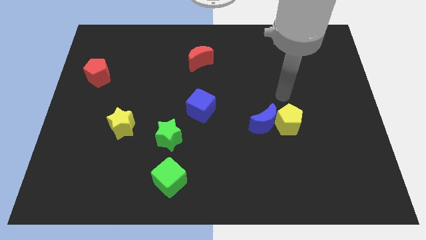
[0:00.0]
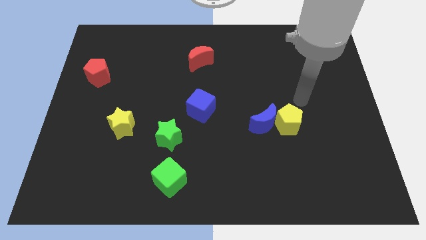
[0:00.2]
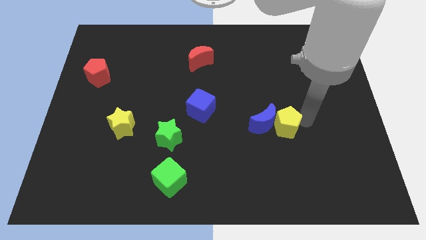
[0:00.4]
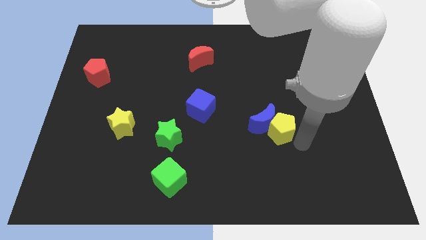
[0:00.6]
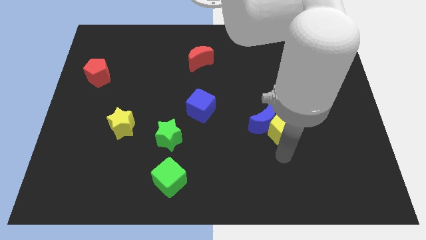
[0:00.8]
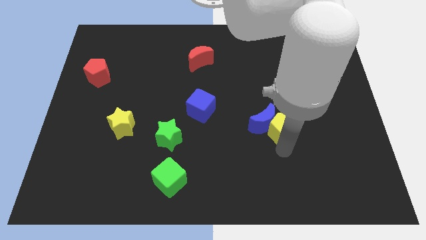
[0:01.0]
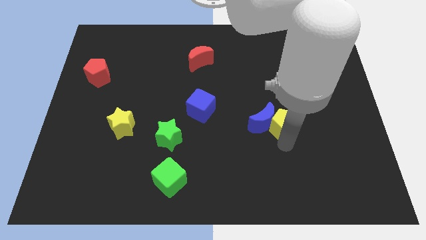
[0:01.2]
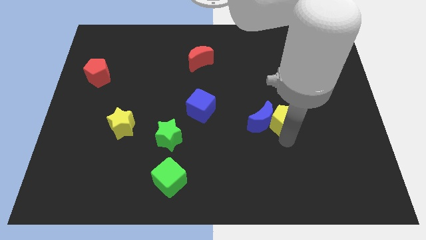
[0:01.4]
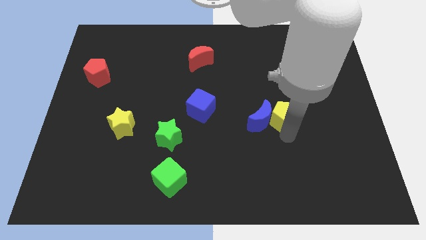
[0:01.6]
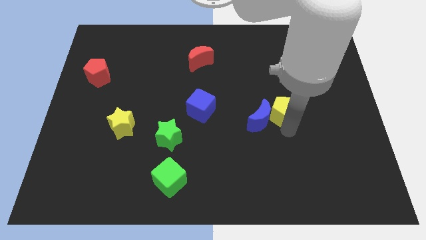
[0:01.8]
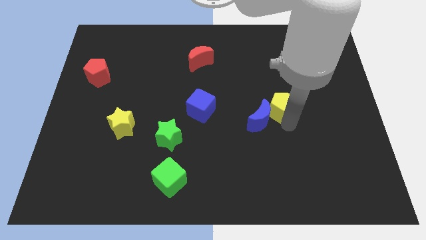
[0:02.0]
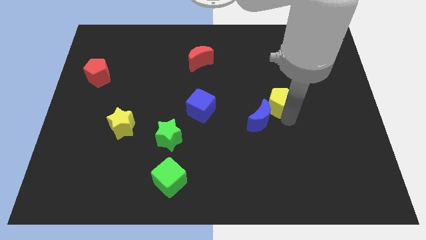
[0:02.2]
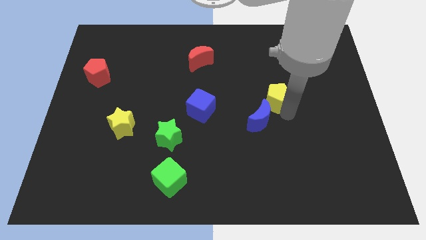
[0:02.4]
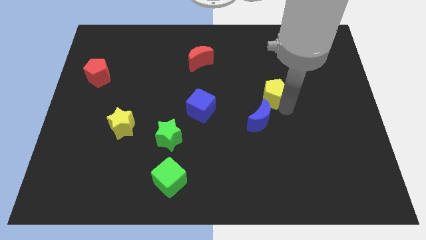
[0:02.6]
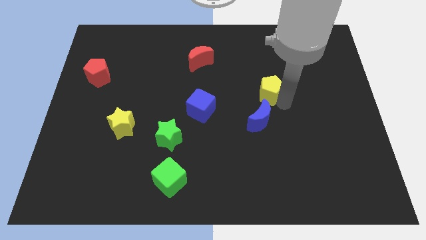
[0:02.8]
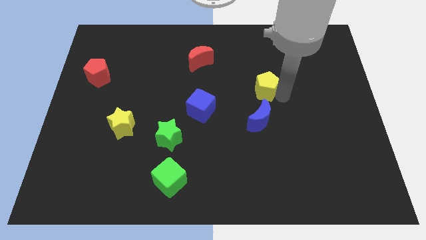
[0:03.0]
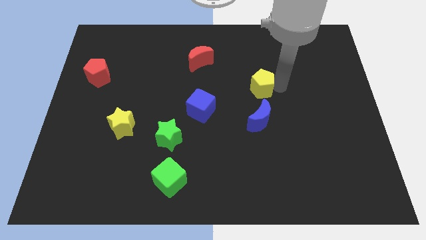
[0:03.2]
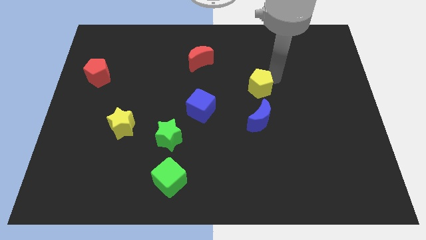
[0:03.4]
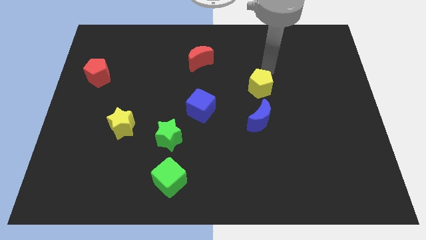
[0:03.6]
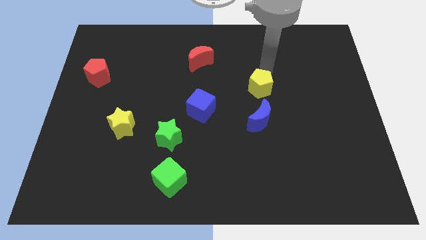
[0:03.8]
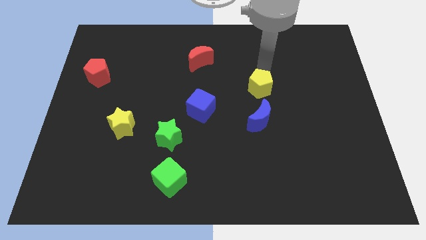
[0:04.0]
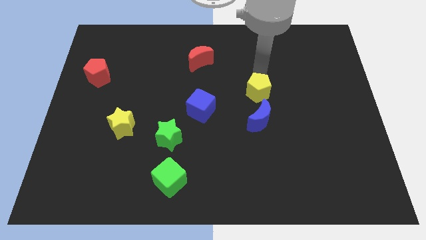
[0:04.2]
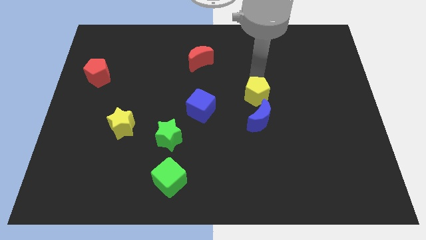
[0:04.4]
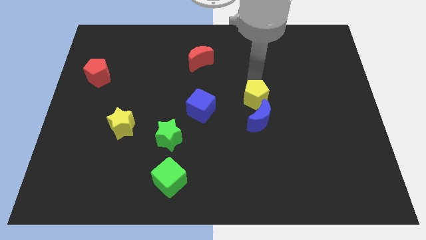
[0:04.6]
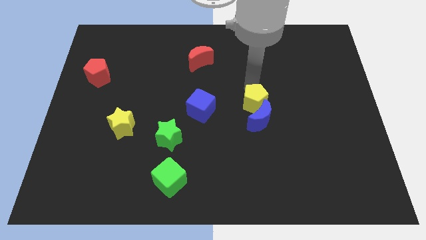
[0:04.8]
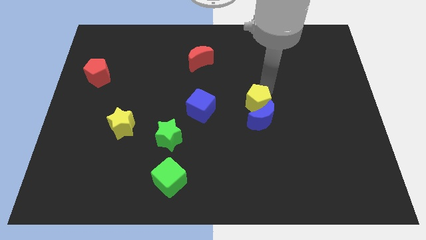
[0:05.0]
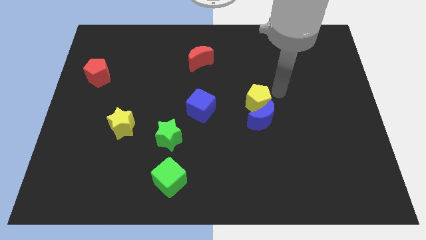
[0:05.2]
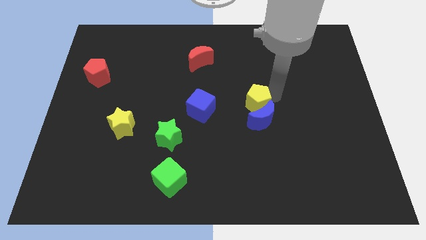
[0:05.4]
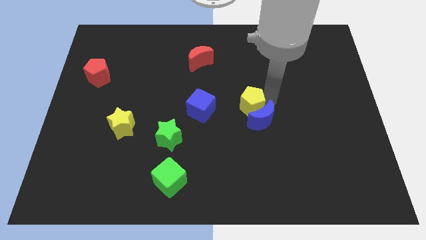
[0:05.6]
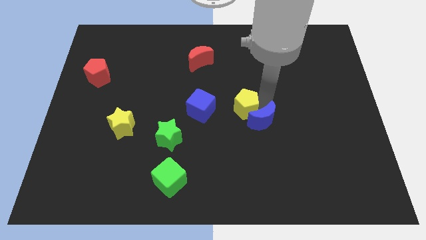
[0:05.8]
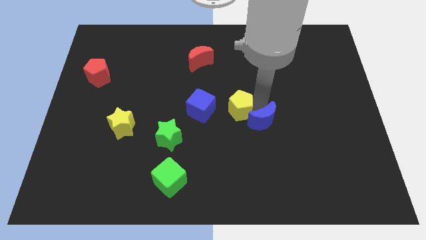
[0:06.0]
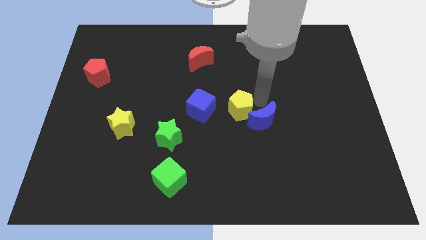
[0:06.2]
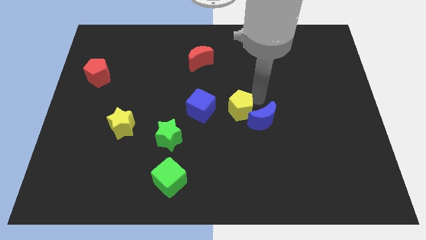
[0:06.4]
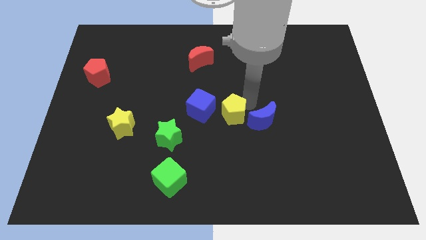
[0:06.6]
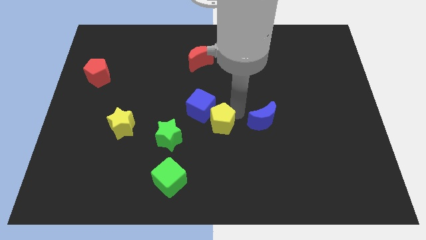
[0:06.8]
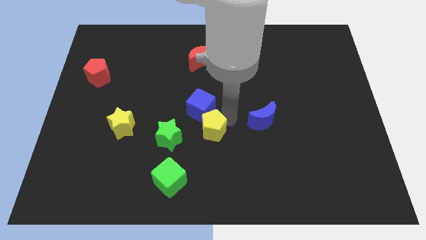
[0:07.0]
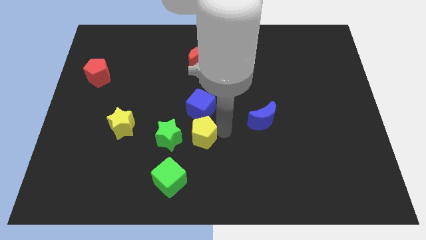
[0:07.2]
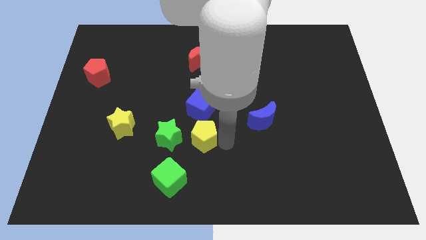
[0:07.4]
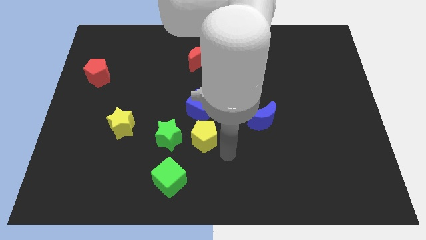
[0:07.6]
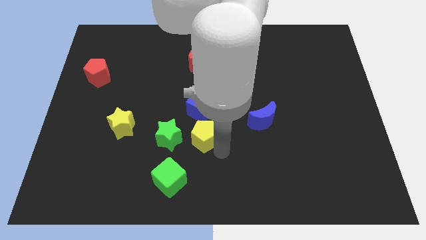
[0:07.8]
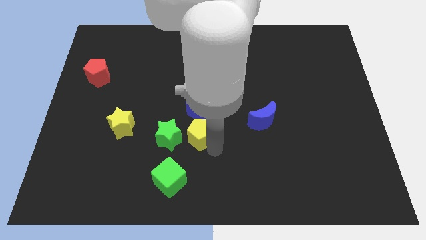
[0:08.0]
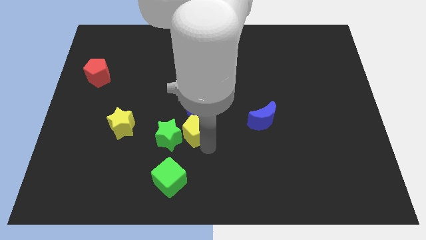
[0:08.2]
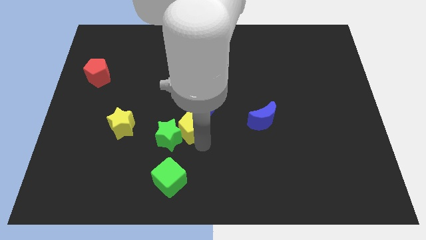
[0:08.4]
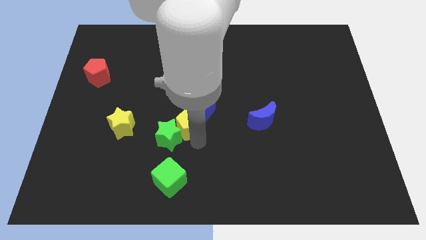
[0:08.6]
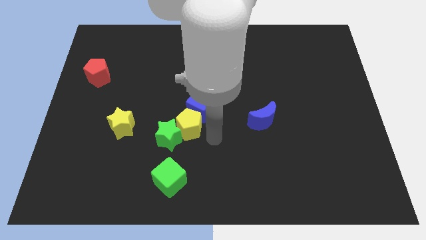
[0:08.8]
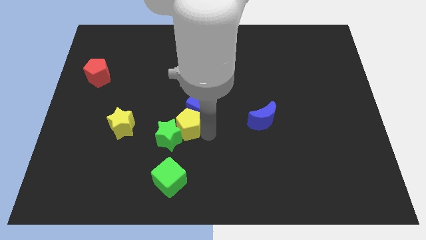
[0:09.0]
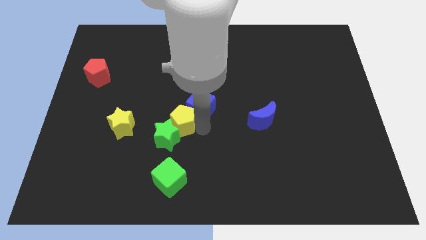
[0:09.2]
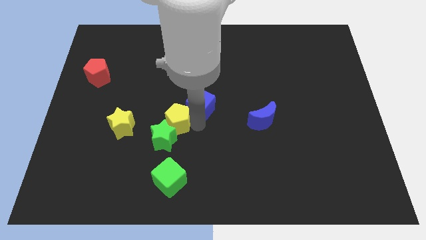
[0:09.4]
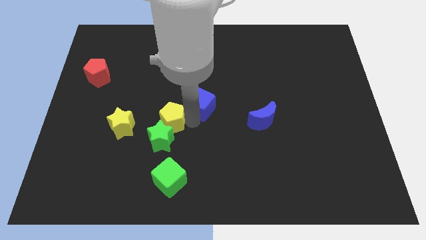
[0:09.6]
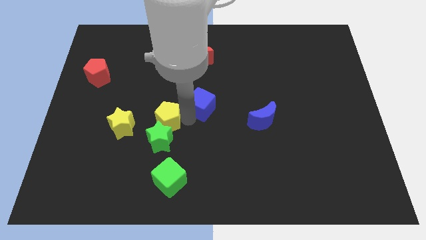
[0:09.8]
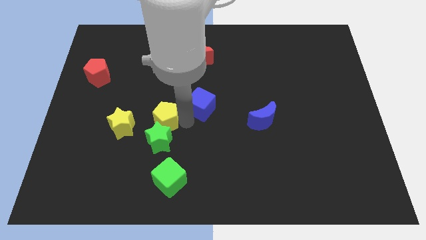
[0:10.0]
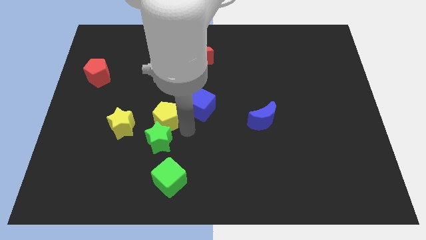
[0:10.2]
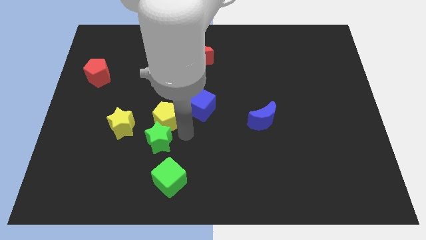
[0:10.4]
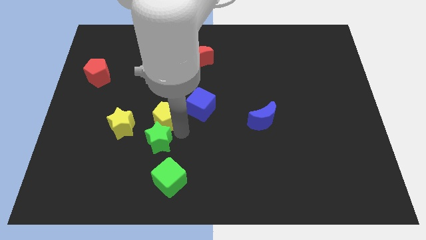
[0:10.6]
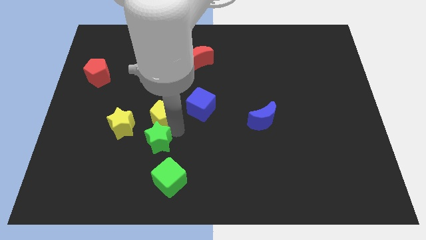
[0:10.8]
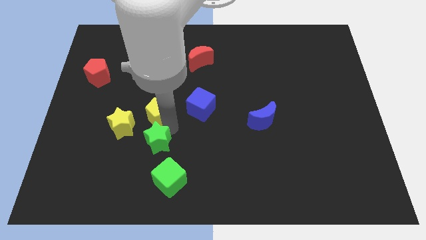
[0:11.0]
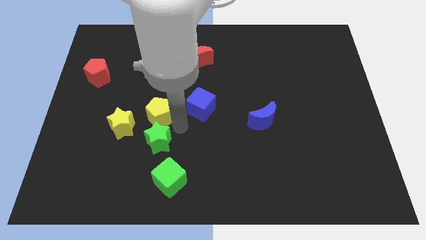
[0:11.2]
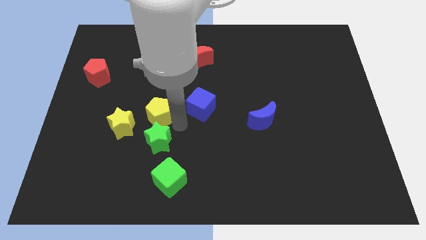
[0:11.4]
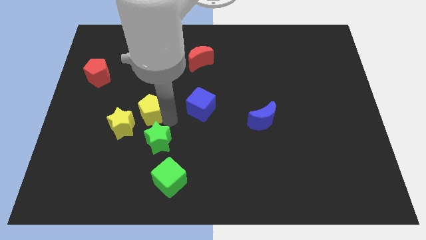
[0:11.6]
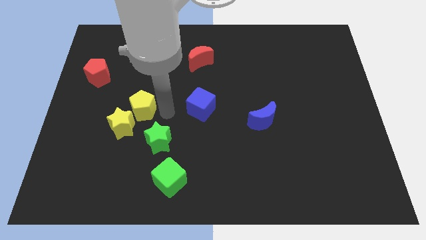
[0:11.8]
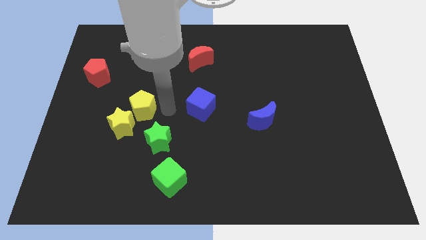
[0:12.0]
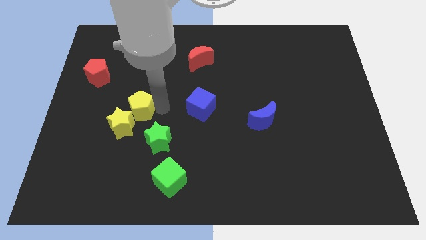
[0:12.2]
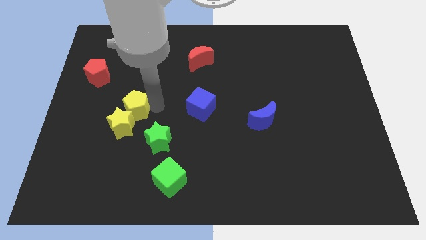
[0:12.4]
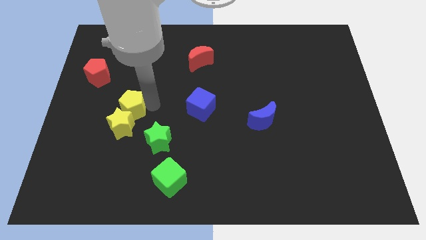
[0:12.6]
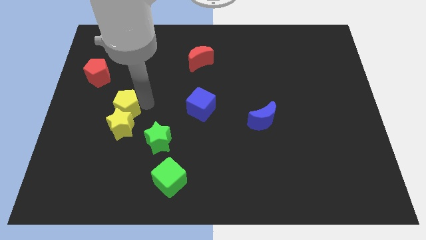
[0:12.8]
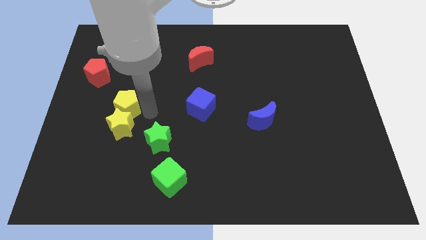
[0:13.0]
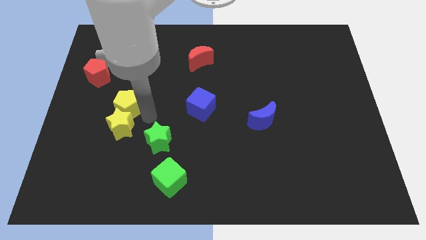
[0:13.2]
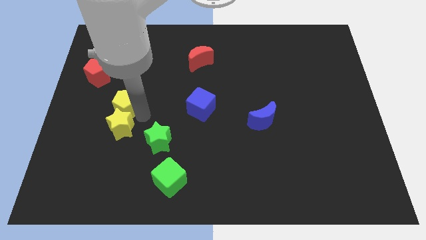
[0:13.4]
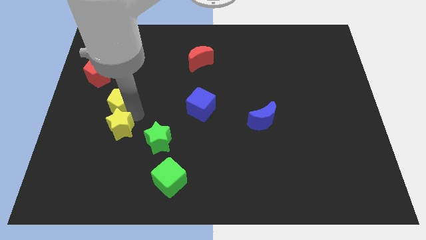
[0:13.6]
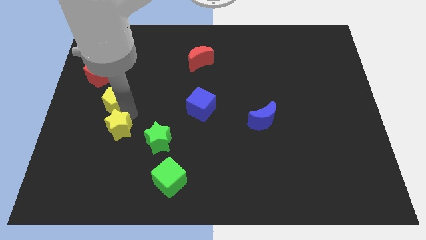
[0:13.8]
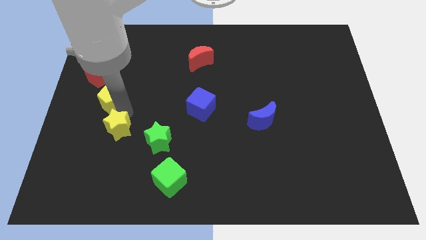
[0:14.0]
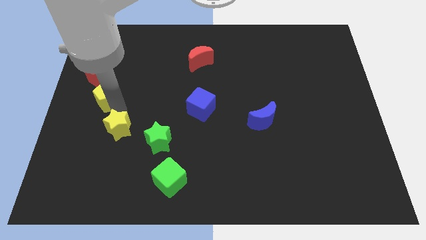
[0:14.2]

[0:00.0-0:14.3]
slide the yellow pentagon to the left side
